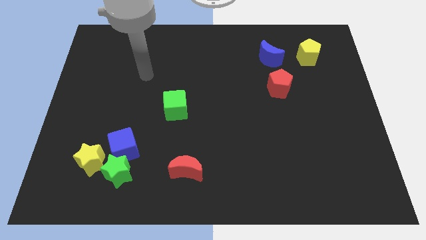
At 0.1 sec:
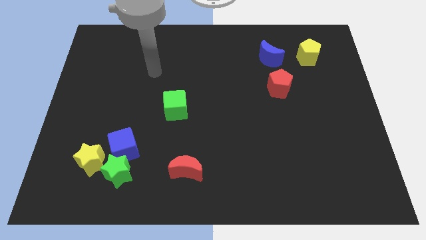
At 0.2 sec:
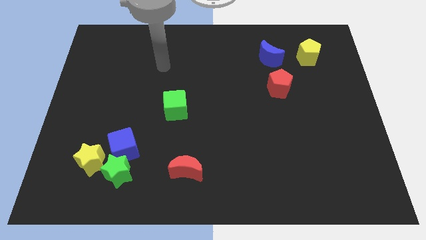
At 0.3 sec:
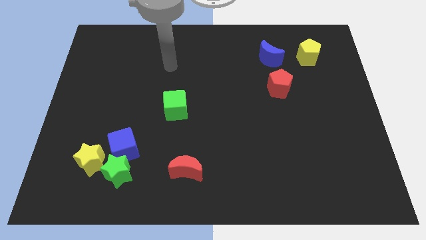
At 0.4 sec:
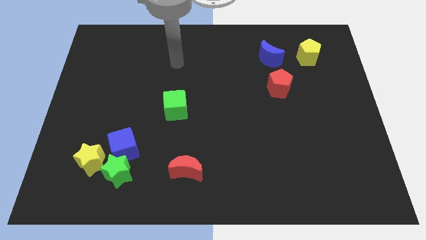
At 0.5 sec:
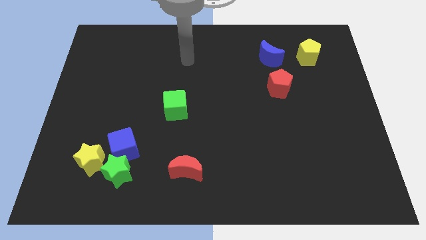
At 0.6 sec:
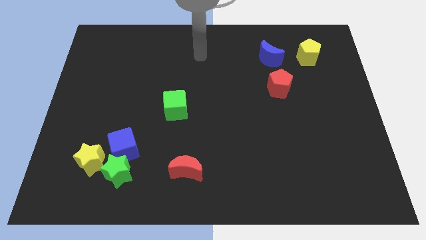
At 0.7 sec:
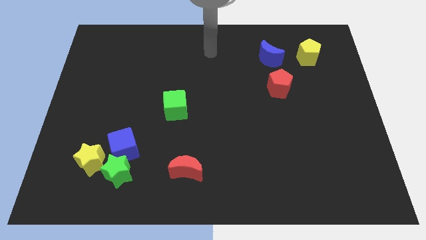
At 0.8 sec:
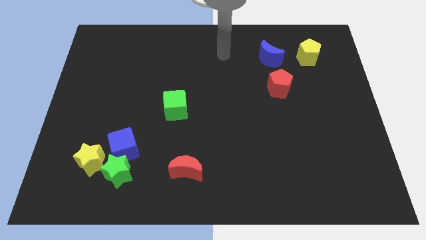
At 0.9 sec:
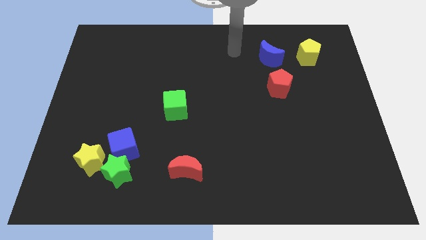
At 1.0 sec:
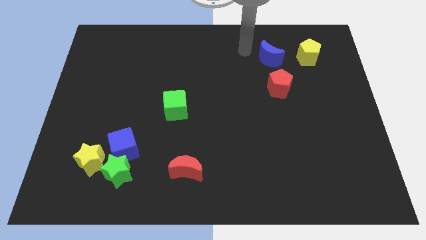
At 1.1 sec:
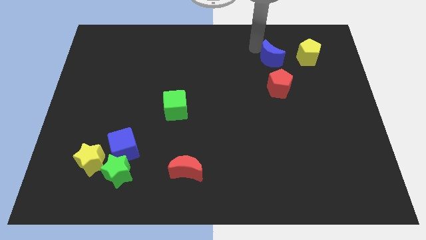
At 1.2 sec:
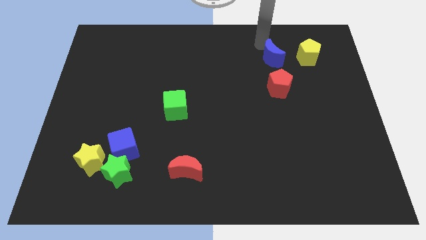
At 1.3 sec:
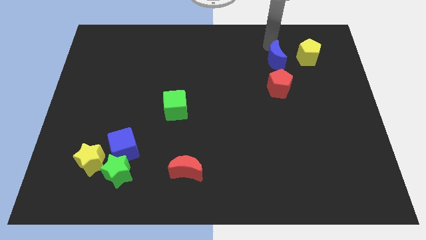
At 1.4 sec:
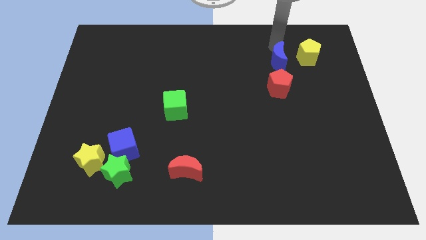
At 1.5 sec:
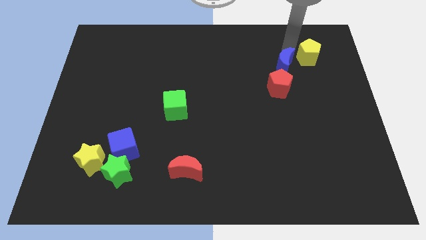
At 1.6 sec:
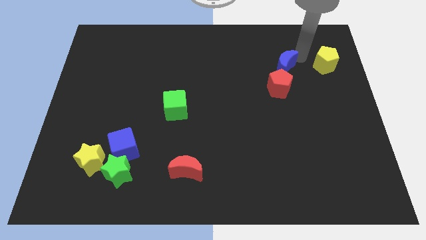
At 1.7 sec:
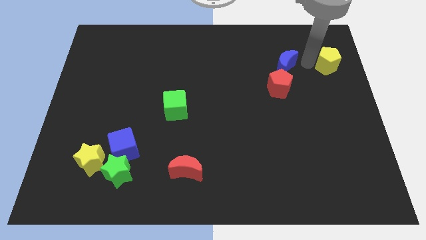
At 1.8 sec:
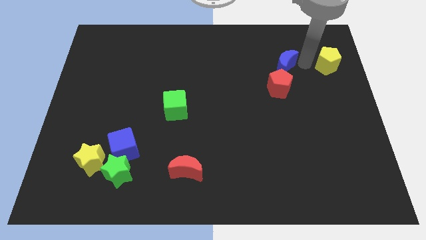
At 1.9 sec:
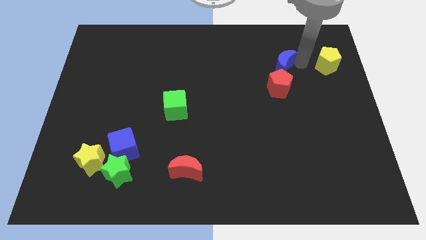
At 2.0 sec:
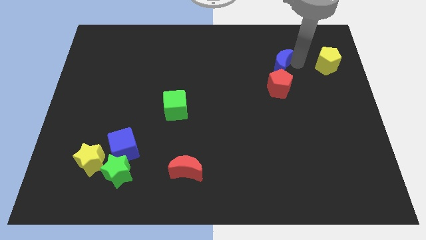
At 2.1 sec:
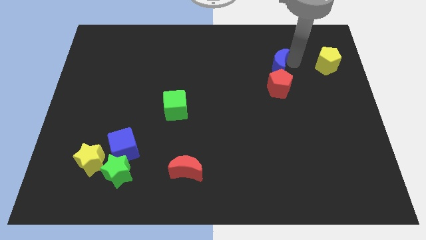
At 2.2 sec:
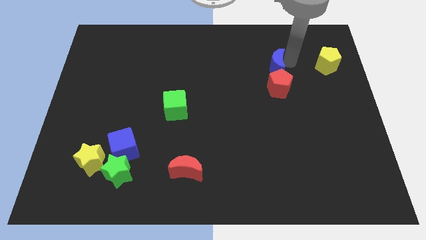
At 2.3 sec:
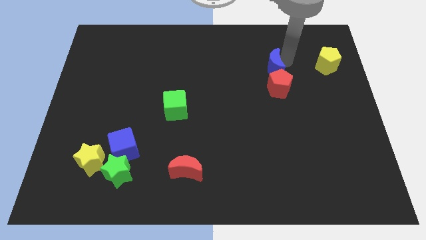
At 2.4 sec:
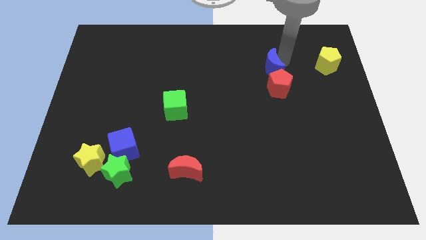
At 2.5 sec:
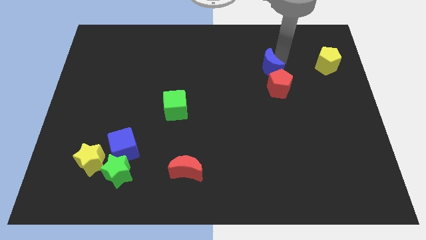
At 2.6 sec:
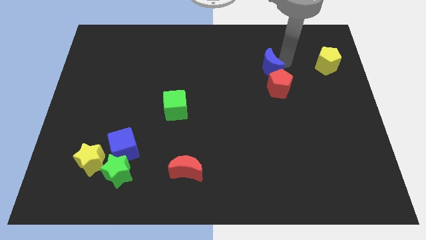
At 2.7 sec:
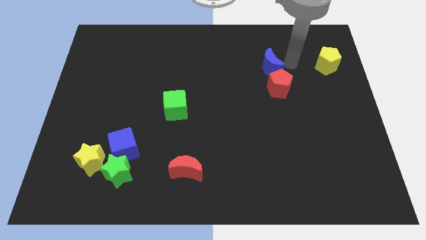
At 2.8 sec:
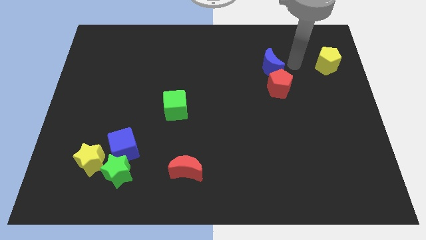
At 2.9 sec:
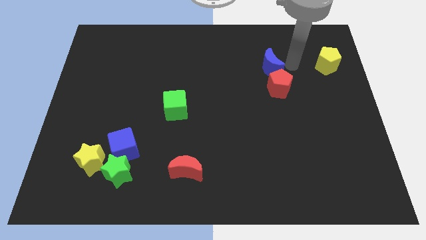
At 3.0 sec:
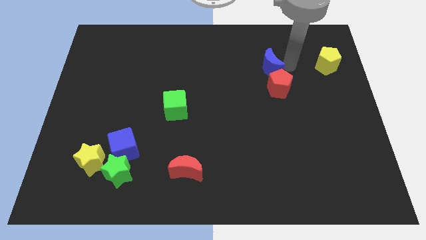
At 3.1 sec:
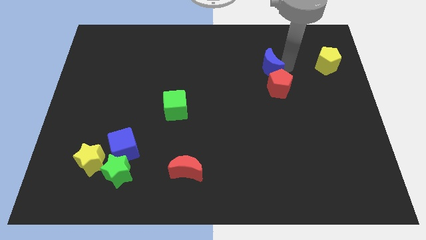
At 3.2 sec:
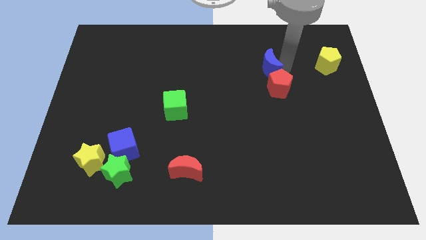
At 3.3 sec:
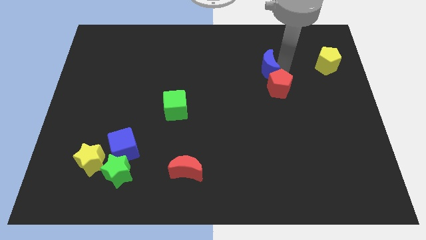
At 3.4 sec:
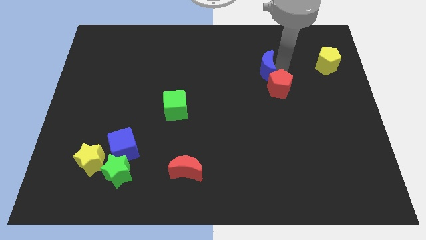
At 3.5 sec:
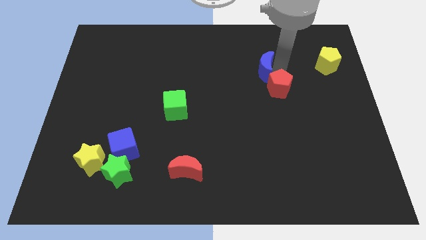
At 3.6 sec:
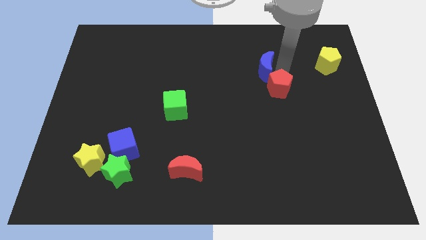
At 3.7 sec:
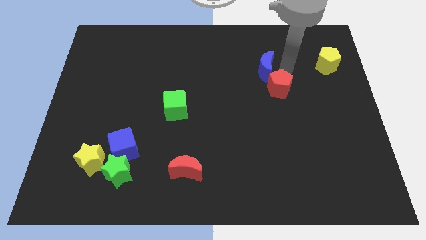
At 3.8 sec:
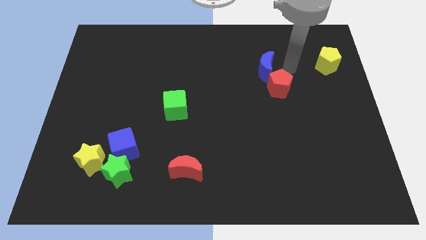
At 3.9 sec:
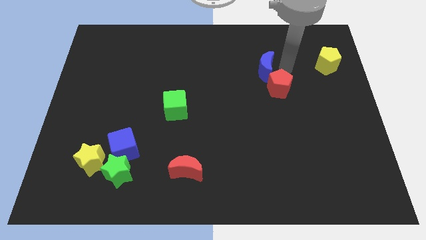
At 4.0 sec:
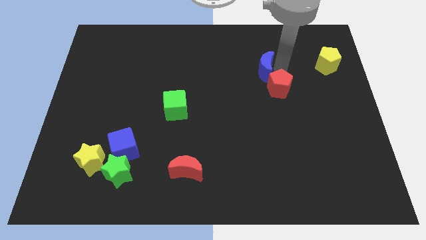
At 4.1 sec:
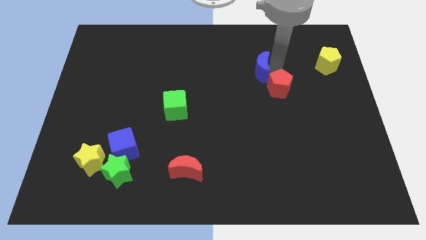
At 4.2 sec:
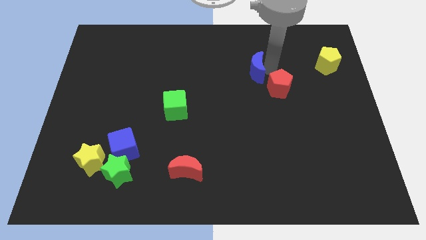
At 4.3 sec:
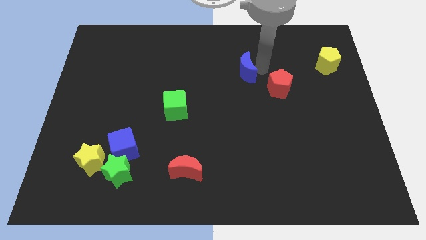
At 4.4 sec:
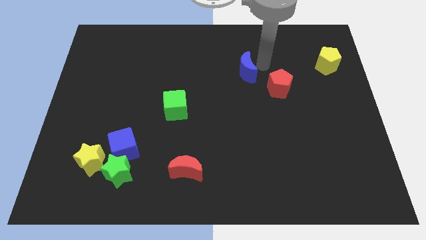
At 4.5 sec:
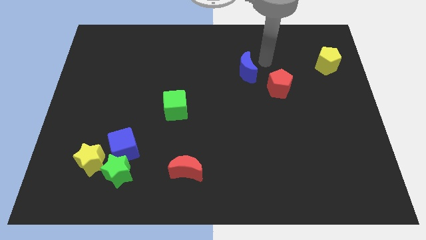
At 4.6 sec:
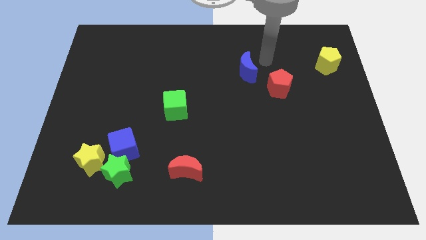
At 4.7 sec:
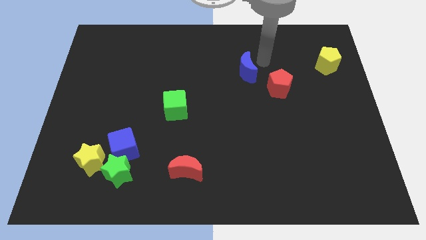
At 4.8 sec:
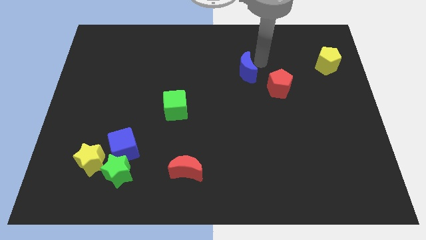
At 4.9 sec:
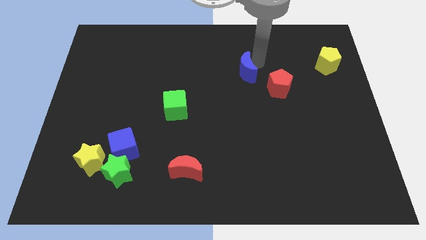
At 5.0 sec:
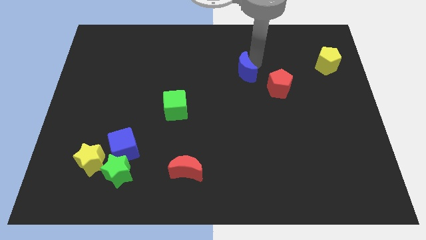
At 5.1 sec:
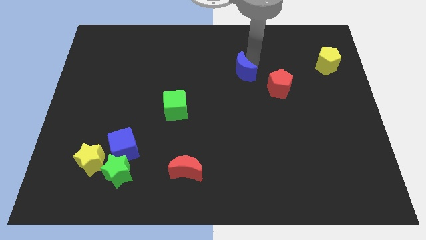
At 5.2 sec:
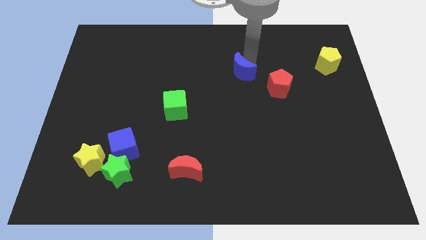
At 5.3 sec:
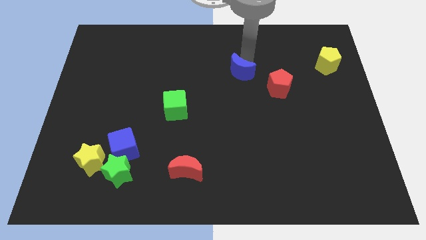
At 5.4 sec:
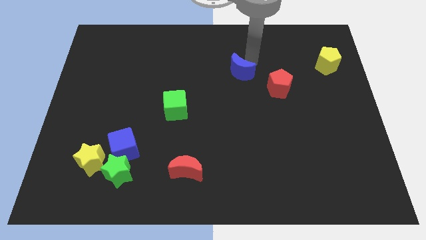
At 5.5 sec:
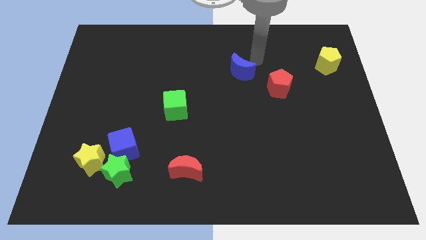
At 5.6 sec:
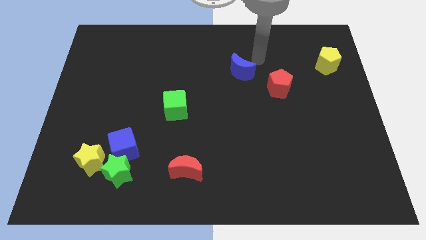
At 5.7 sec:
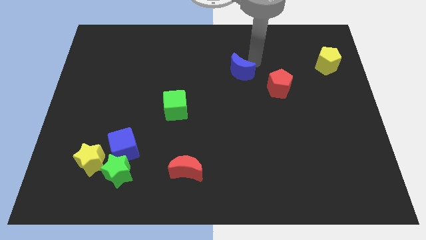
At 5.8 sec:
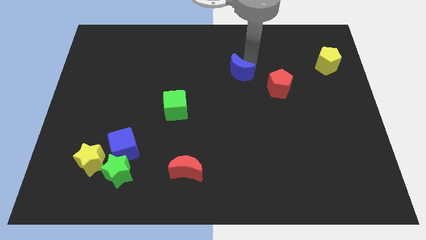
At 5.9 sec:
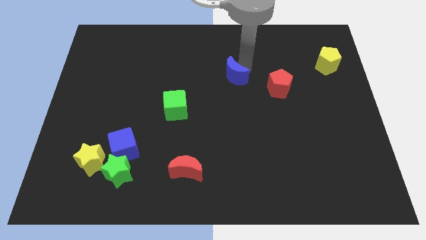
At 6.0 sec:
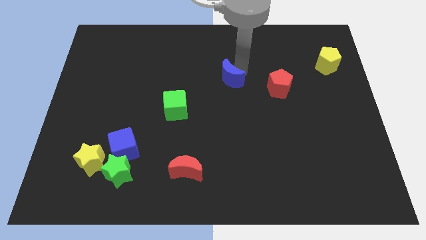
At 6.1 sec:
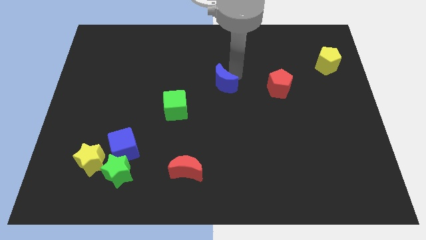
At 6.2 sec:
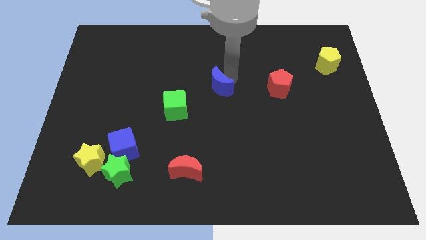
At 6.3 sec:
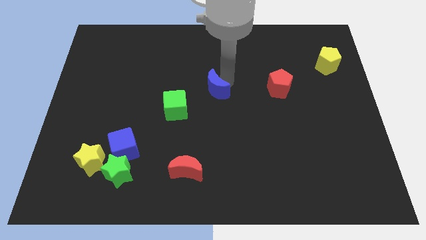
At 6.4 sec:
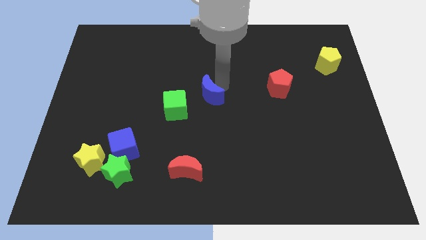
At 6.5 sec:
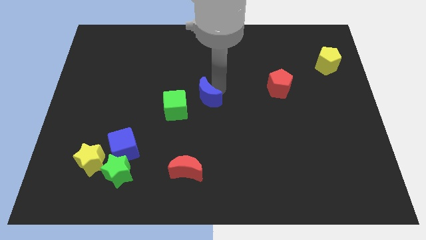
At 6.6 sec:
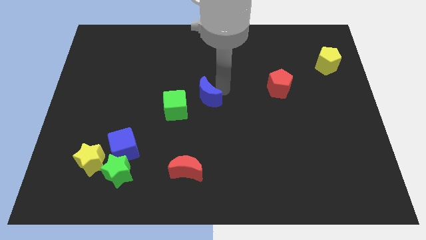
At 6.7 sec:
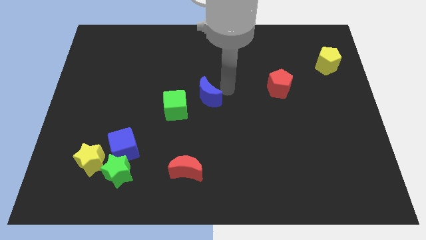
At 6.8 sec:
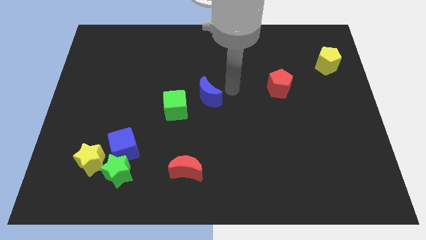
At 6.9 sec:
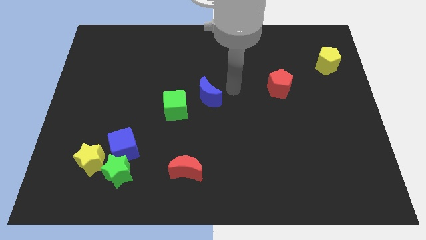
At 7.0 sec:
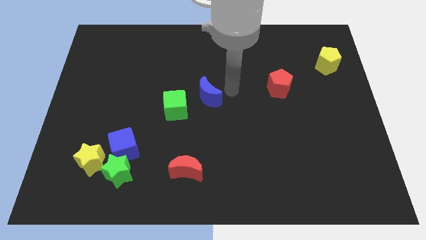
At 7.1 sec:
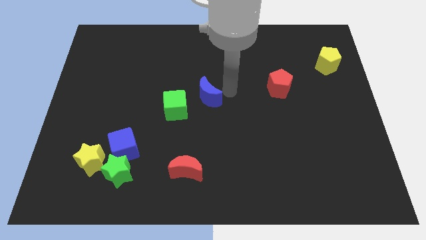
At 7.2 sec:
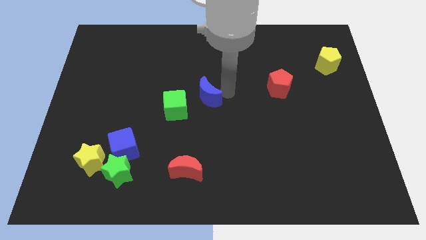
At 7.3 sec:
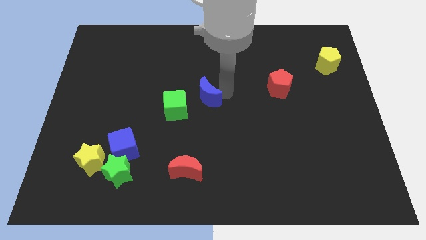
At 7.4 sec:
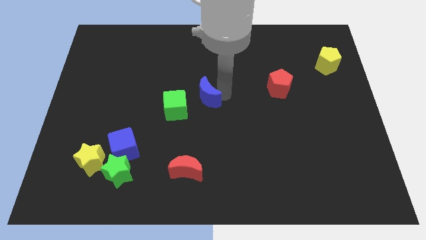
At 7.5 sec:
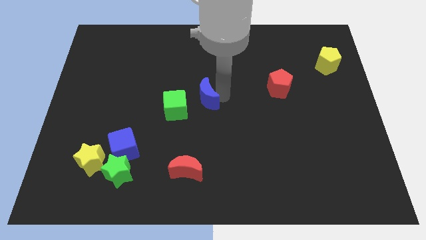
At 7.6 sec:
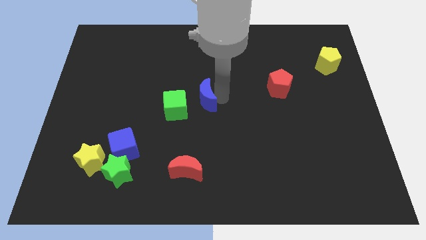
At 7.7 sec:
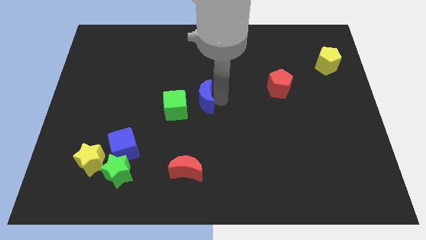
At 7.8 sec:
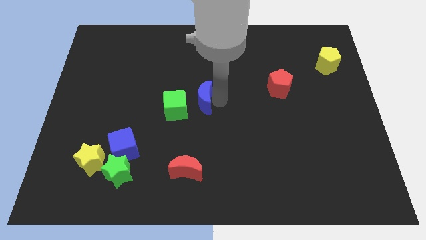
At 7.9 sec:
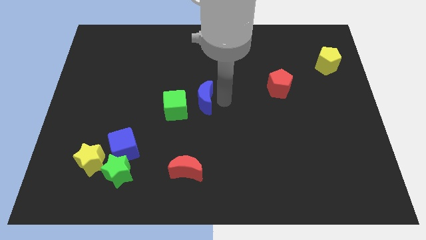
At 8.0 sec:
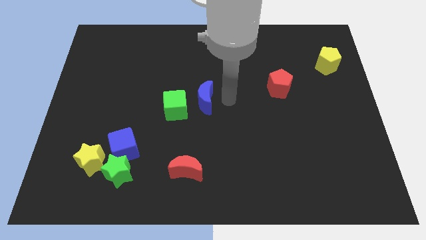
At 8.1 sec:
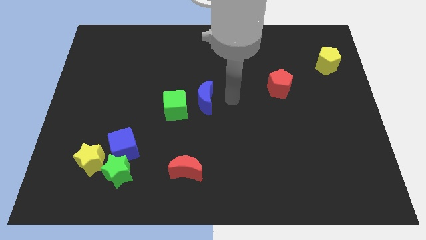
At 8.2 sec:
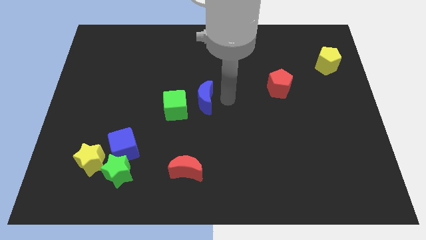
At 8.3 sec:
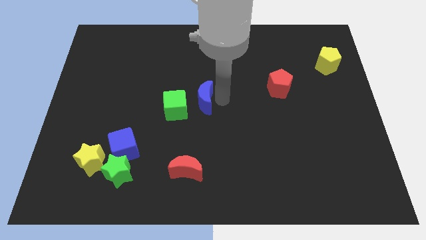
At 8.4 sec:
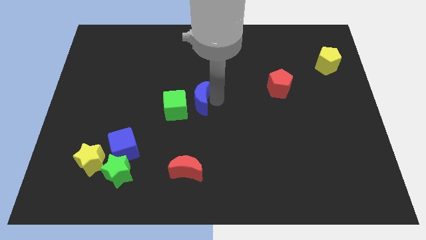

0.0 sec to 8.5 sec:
move the blue moon to the green cube
